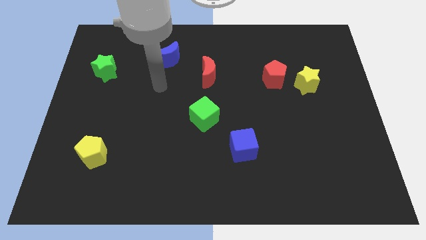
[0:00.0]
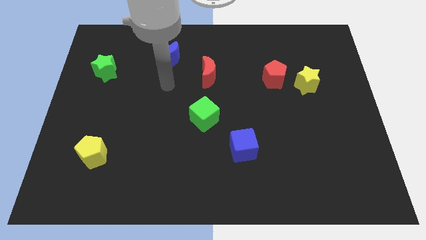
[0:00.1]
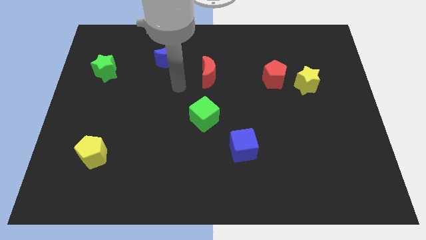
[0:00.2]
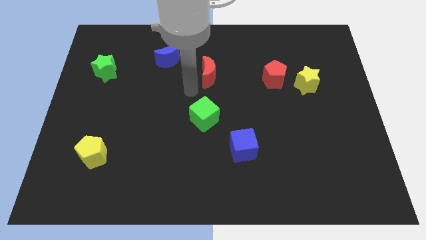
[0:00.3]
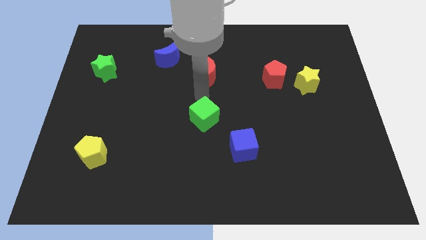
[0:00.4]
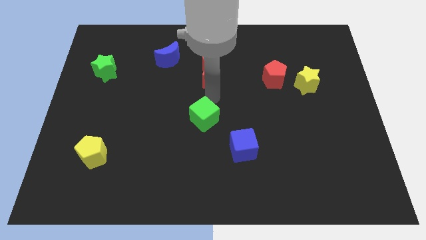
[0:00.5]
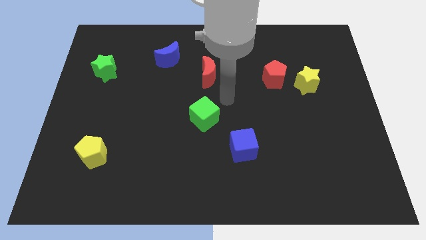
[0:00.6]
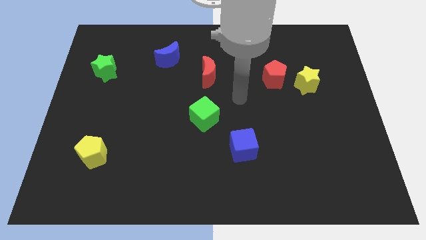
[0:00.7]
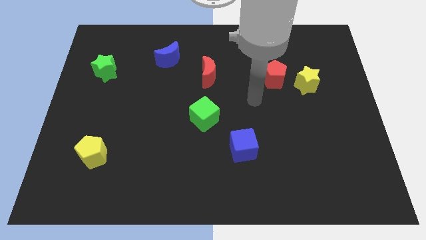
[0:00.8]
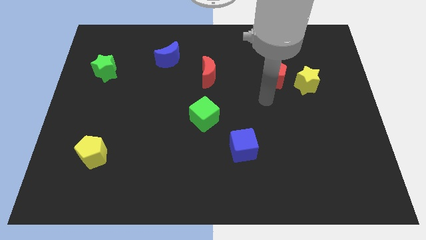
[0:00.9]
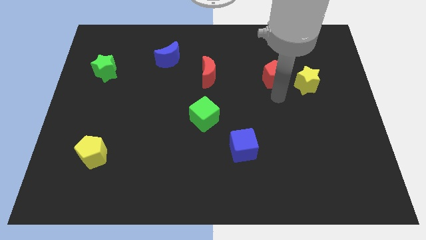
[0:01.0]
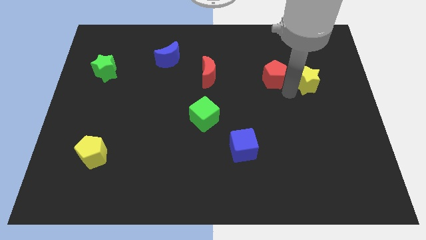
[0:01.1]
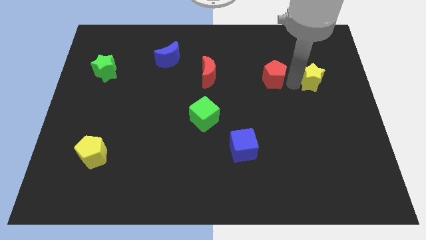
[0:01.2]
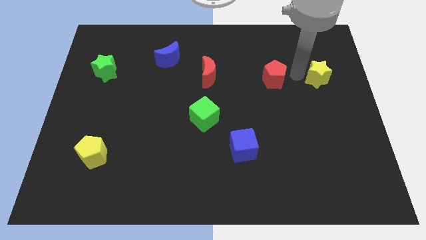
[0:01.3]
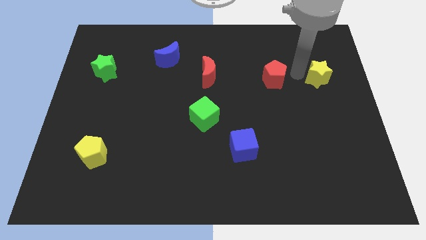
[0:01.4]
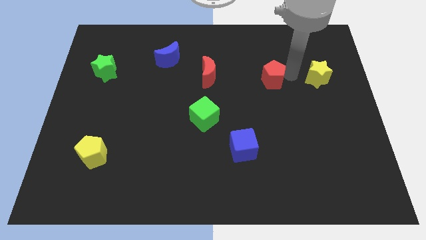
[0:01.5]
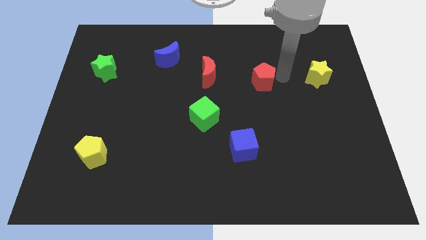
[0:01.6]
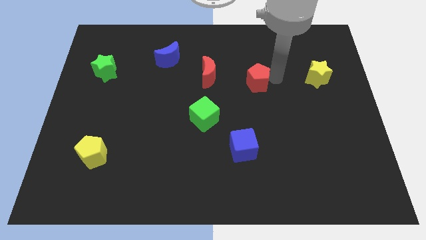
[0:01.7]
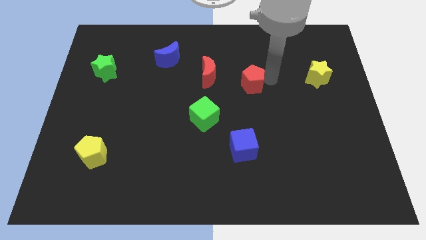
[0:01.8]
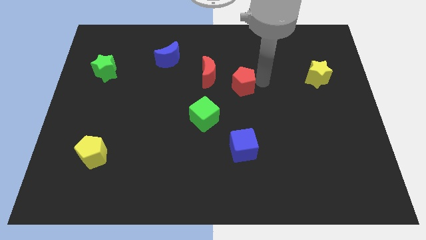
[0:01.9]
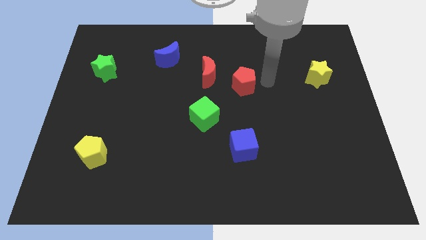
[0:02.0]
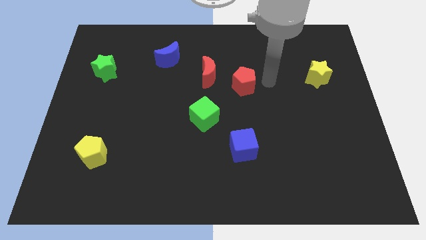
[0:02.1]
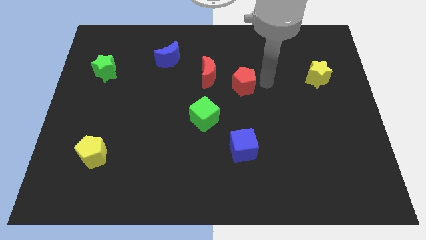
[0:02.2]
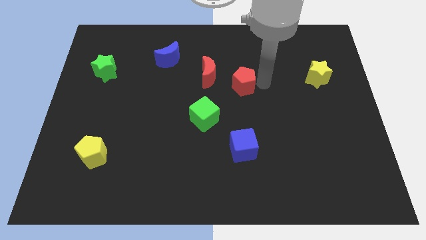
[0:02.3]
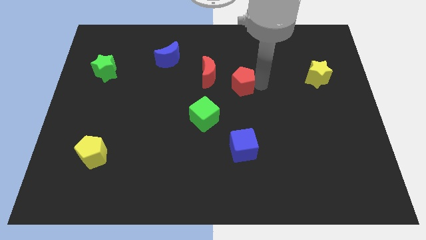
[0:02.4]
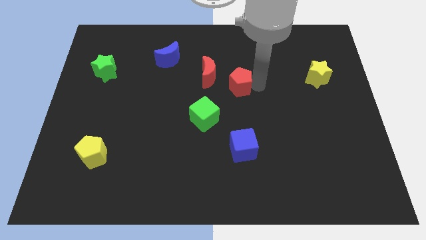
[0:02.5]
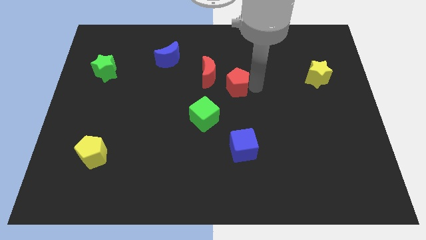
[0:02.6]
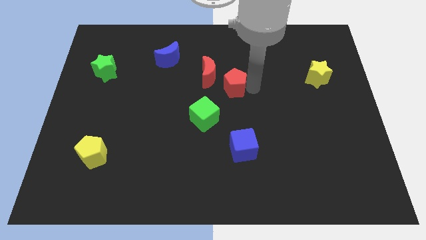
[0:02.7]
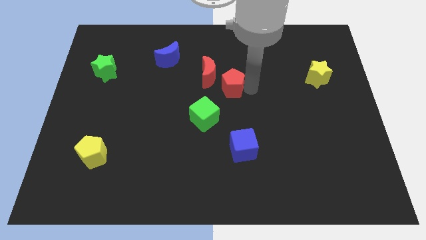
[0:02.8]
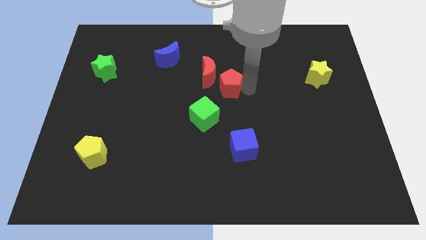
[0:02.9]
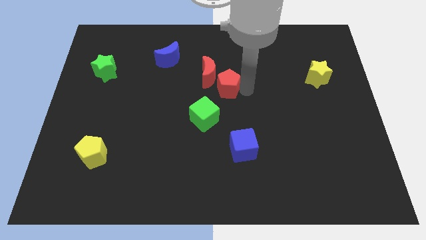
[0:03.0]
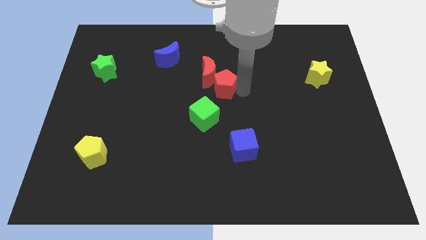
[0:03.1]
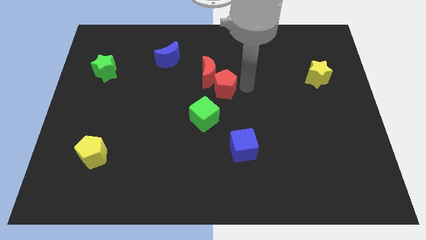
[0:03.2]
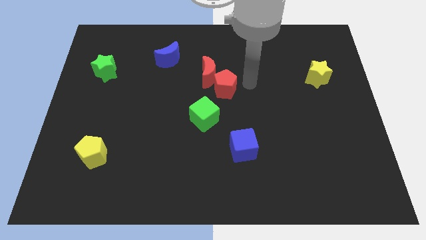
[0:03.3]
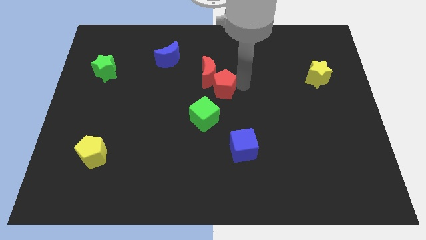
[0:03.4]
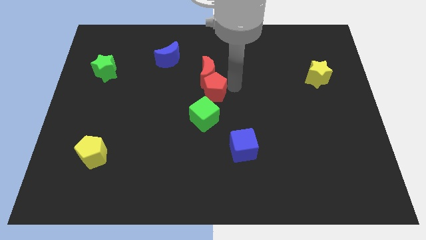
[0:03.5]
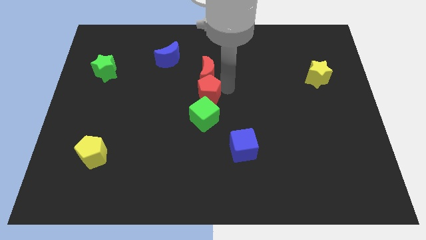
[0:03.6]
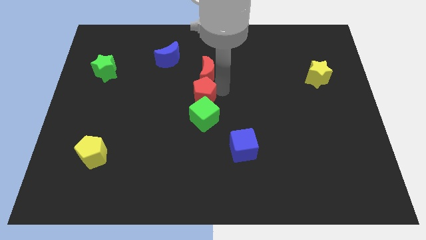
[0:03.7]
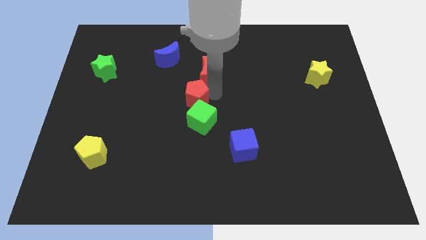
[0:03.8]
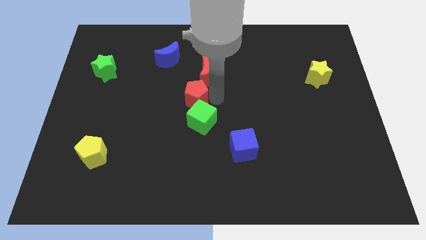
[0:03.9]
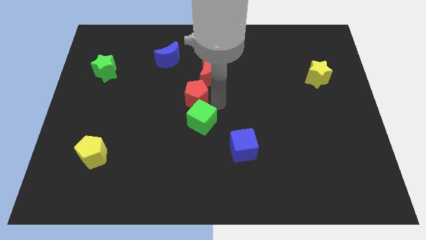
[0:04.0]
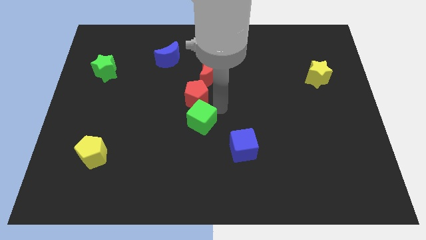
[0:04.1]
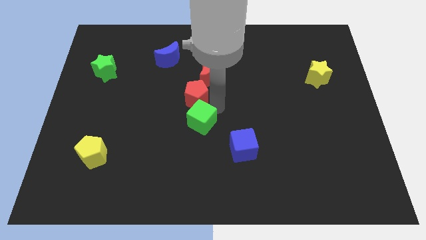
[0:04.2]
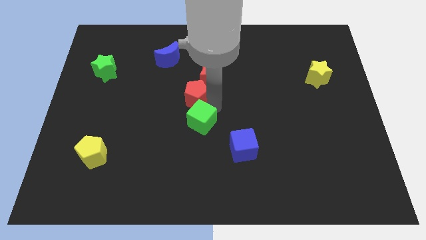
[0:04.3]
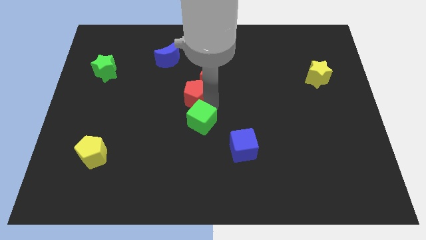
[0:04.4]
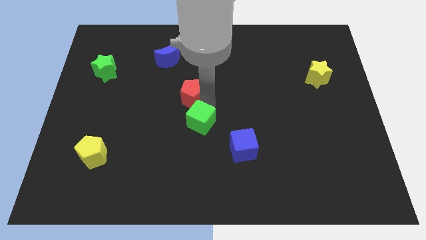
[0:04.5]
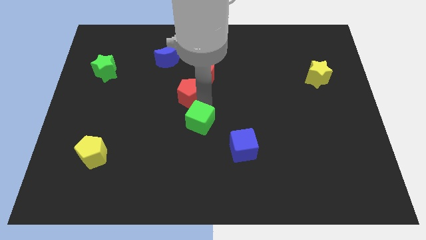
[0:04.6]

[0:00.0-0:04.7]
move the red pentagon to the left

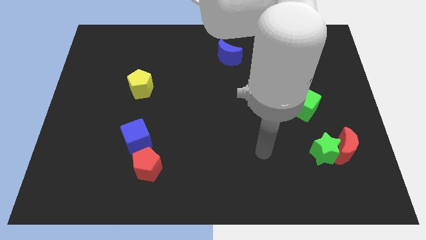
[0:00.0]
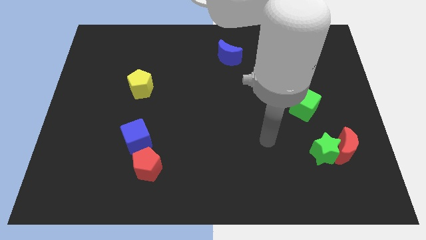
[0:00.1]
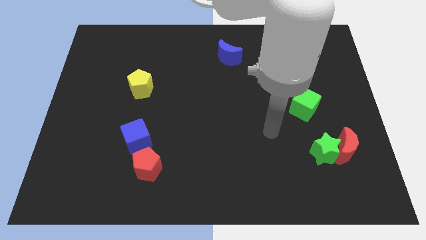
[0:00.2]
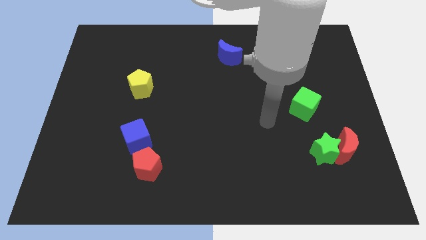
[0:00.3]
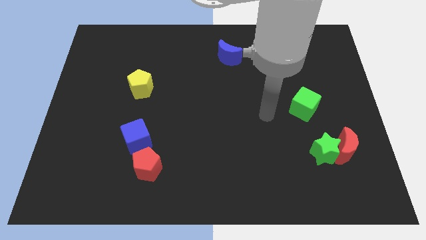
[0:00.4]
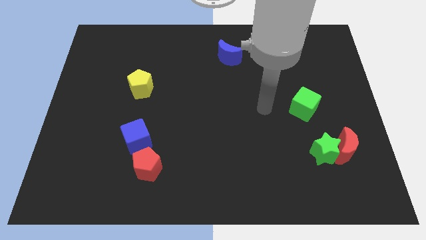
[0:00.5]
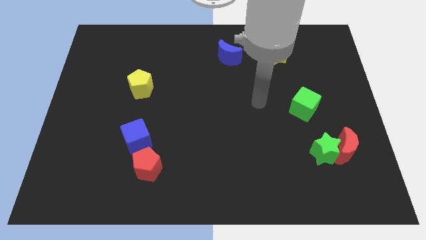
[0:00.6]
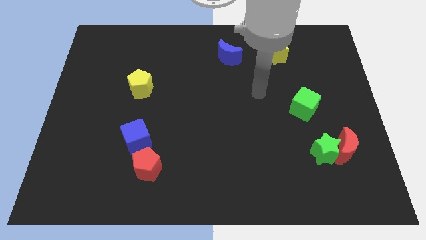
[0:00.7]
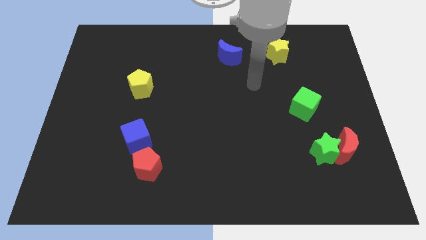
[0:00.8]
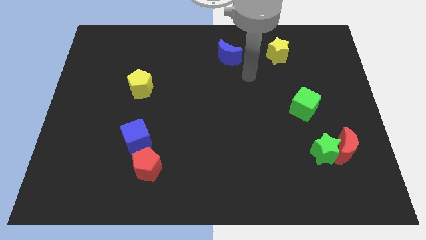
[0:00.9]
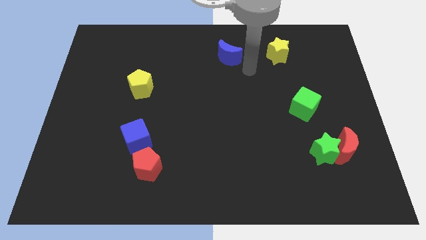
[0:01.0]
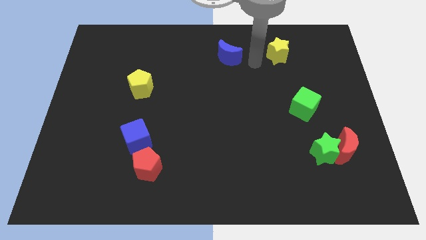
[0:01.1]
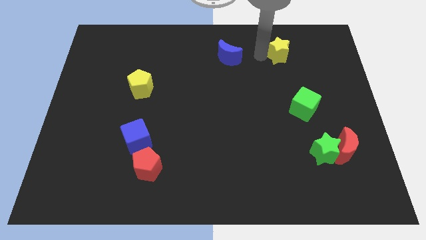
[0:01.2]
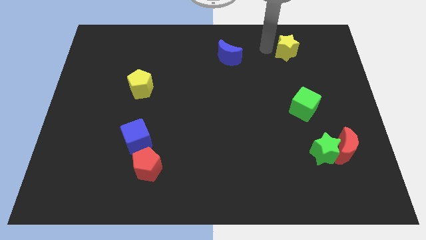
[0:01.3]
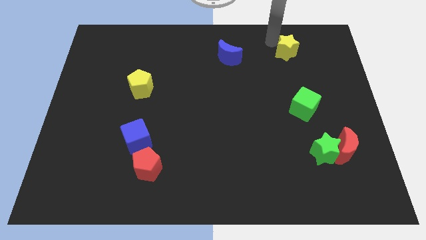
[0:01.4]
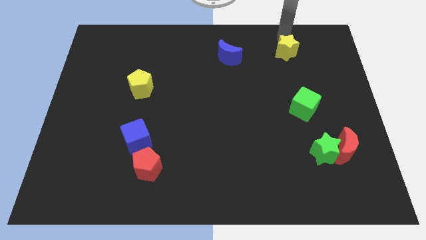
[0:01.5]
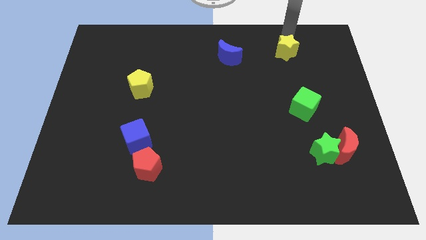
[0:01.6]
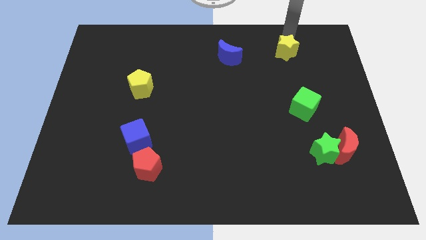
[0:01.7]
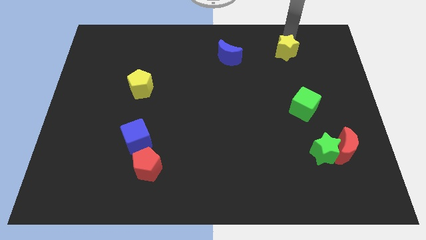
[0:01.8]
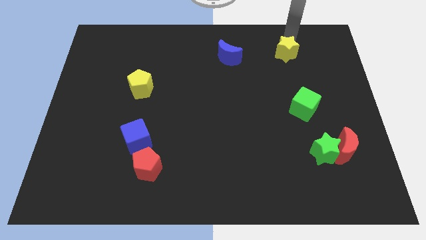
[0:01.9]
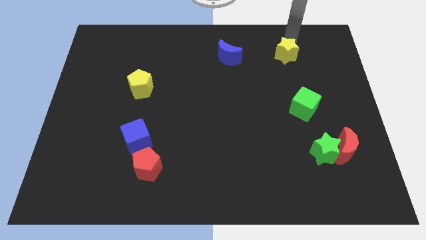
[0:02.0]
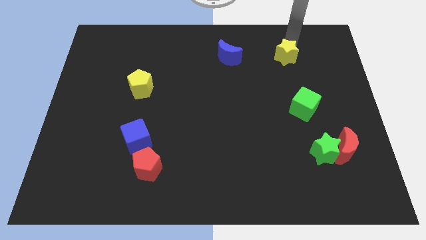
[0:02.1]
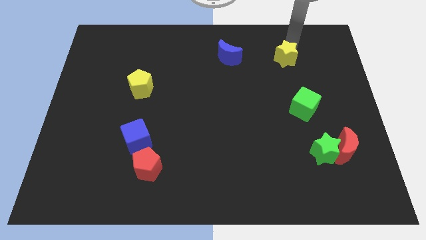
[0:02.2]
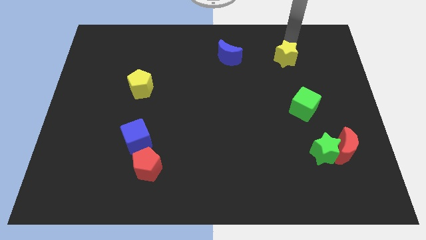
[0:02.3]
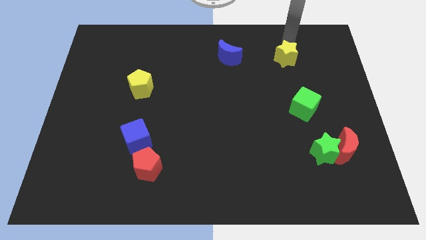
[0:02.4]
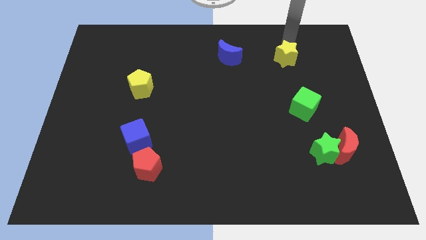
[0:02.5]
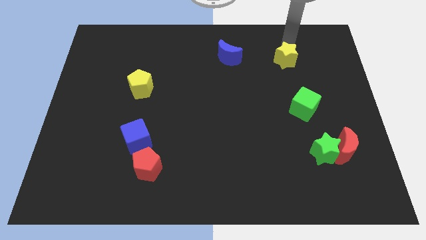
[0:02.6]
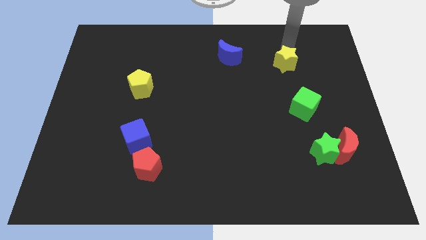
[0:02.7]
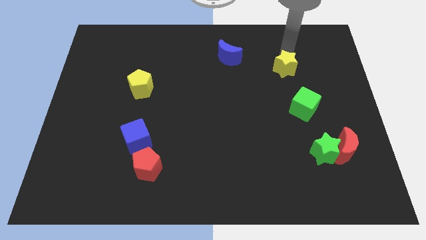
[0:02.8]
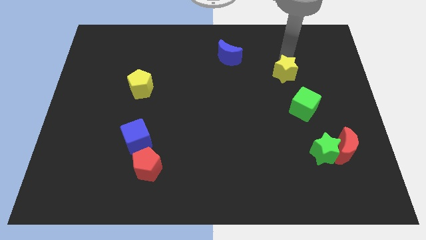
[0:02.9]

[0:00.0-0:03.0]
slide the yellow star a little bit down

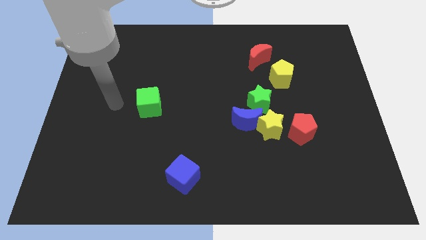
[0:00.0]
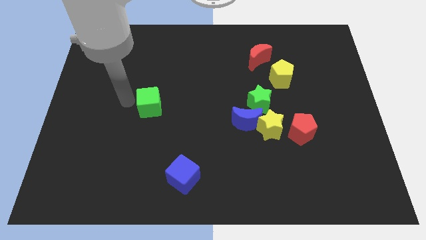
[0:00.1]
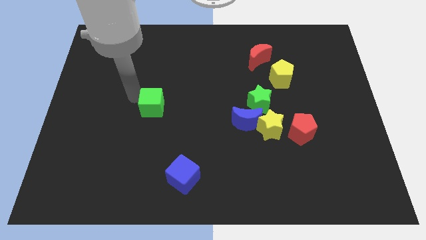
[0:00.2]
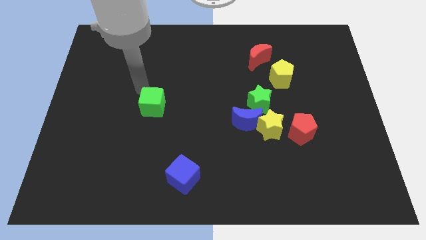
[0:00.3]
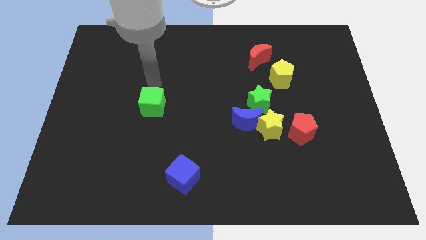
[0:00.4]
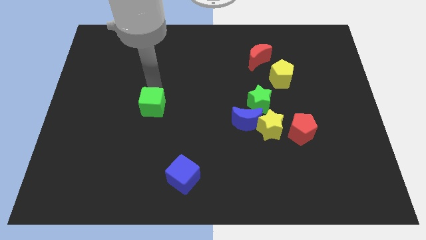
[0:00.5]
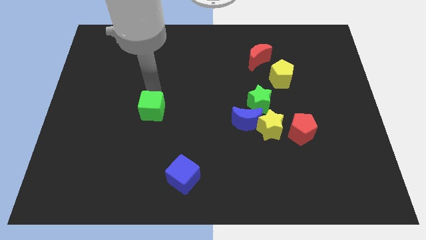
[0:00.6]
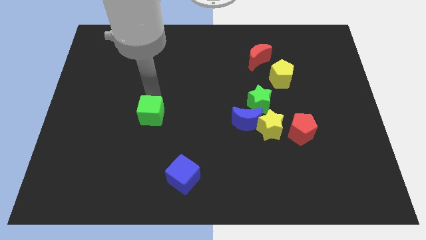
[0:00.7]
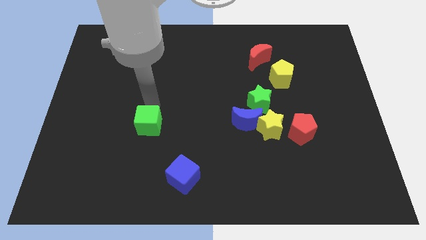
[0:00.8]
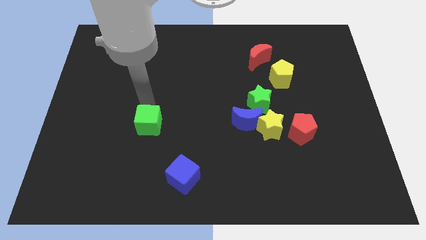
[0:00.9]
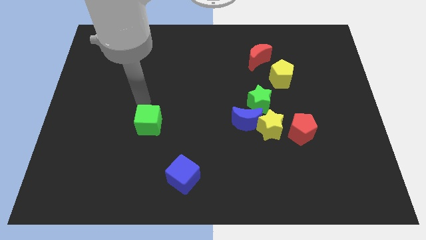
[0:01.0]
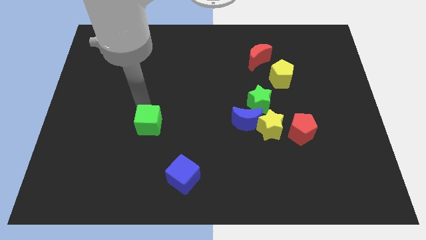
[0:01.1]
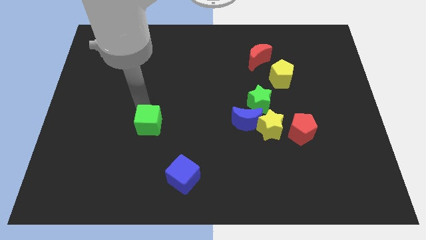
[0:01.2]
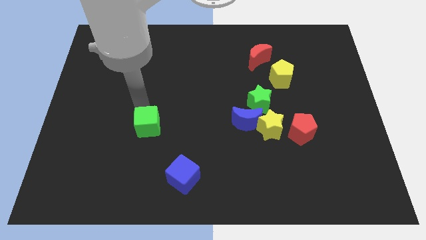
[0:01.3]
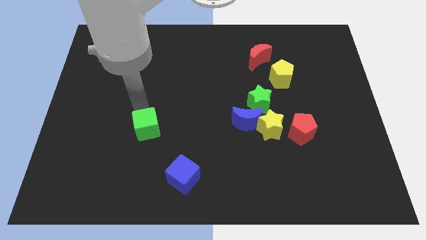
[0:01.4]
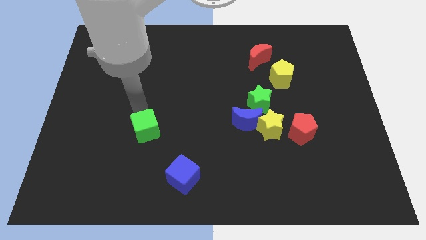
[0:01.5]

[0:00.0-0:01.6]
move the green cube slightly down
